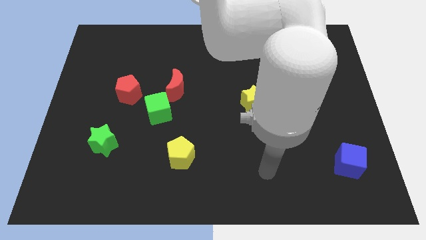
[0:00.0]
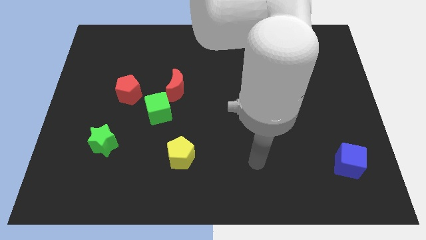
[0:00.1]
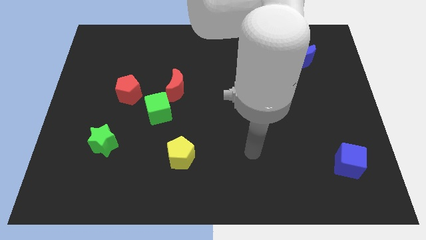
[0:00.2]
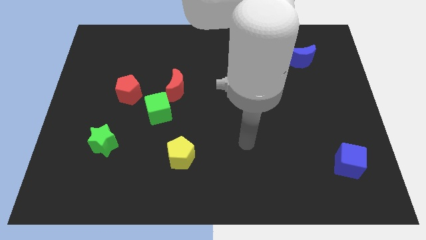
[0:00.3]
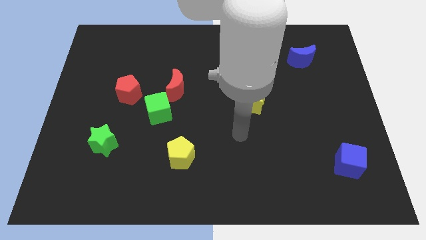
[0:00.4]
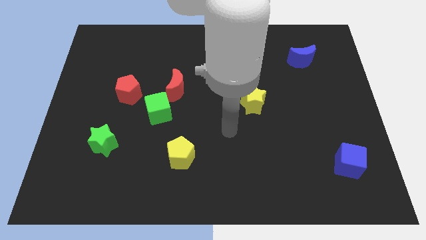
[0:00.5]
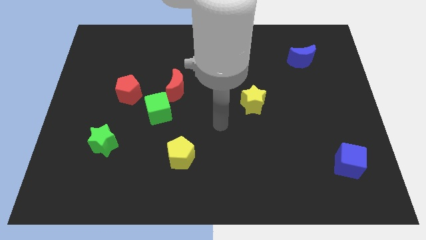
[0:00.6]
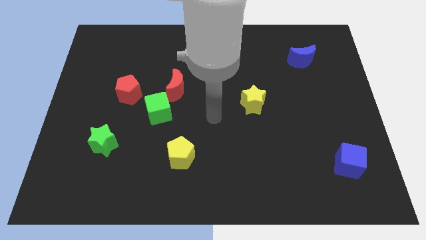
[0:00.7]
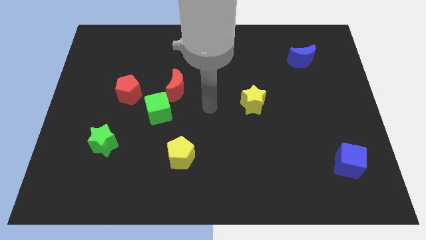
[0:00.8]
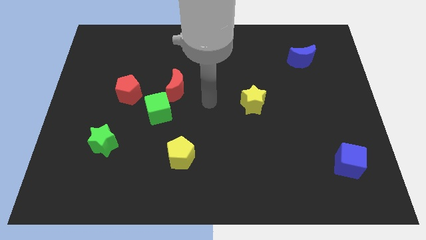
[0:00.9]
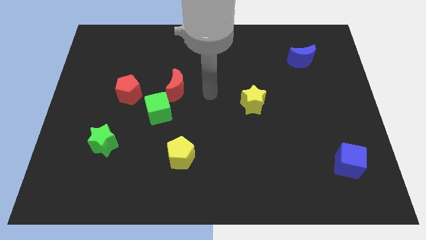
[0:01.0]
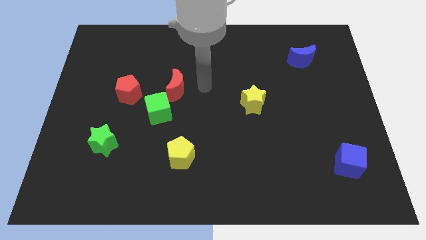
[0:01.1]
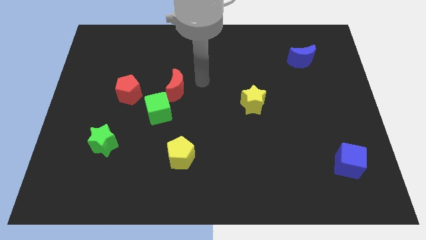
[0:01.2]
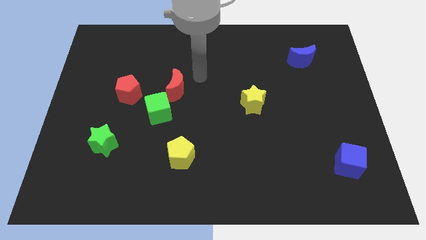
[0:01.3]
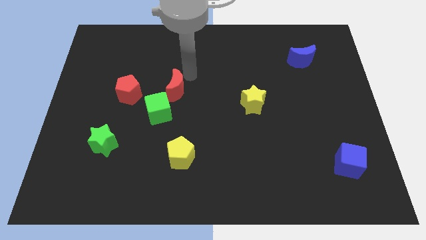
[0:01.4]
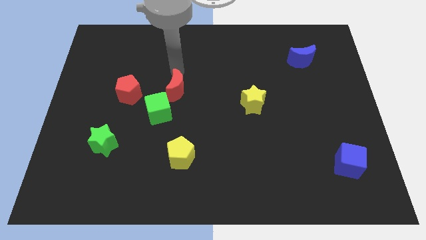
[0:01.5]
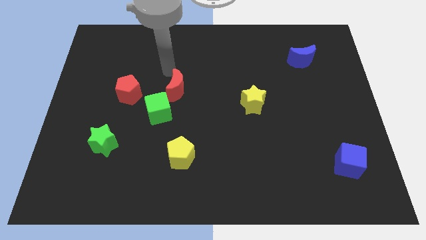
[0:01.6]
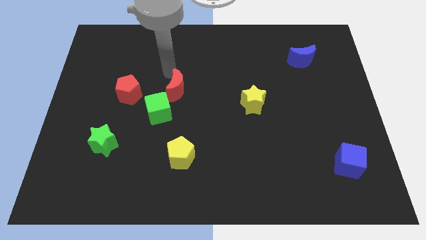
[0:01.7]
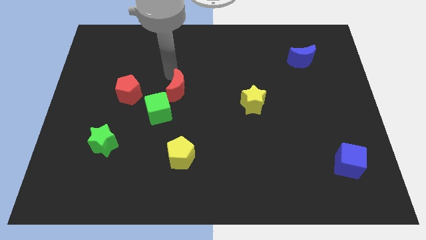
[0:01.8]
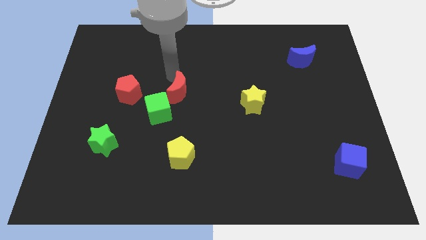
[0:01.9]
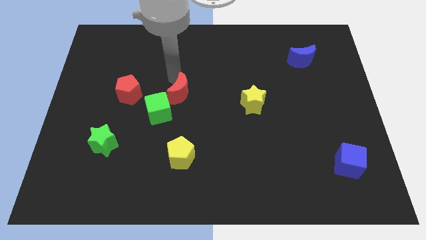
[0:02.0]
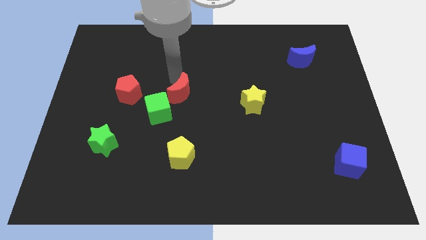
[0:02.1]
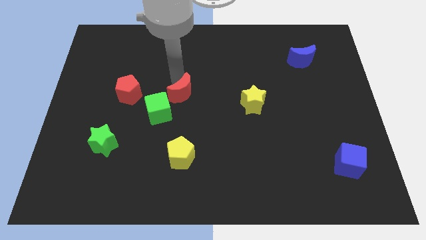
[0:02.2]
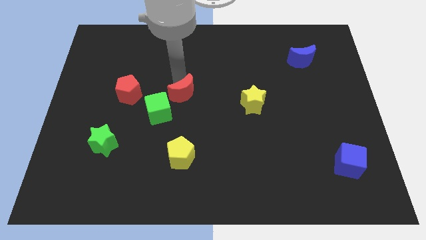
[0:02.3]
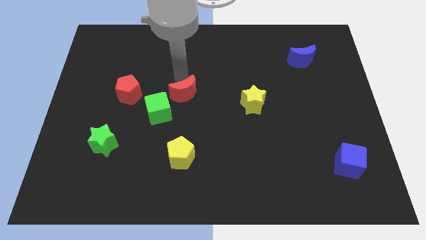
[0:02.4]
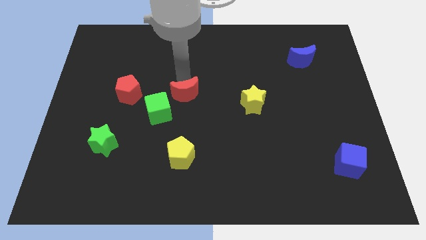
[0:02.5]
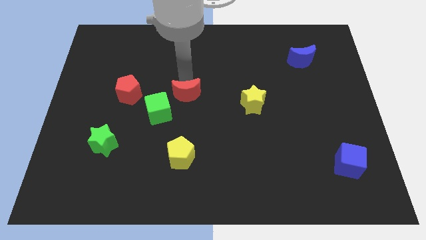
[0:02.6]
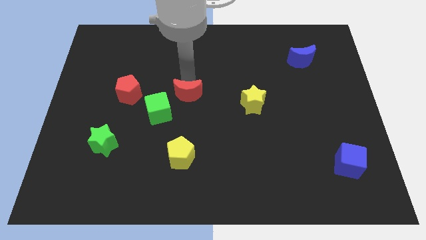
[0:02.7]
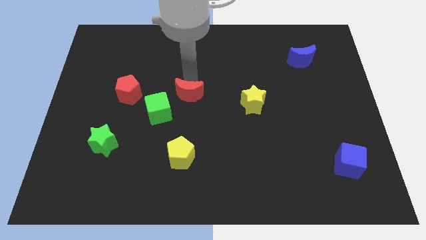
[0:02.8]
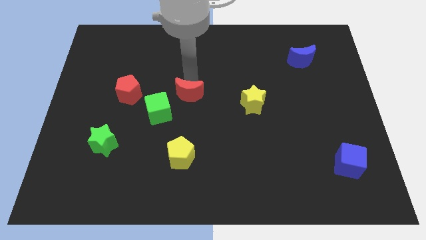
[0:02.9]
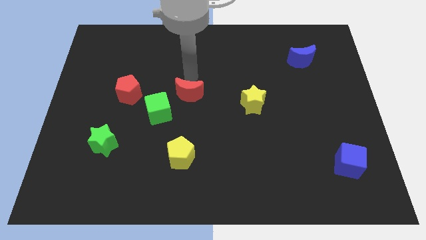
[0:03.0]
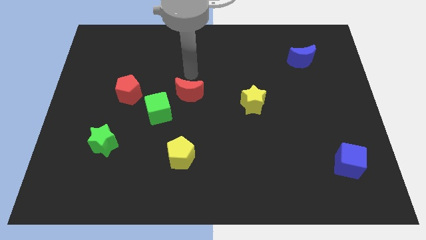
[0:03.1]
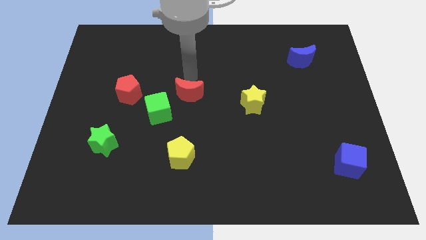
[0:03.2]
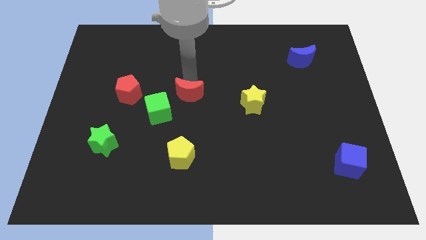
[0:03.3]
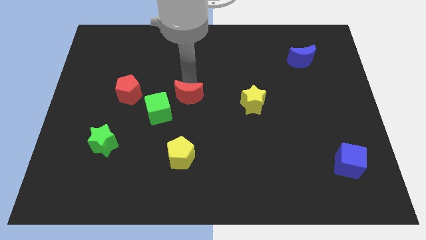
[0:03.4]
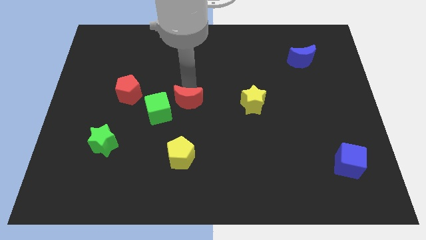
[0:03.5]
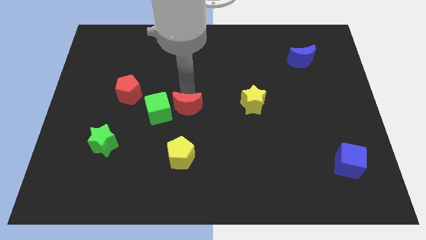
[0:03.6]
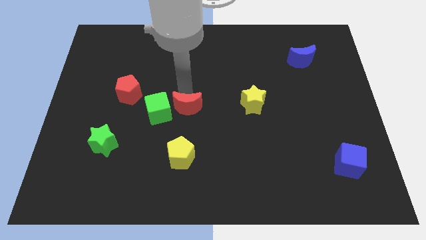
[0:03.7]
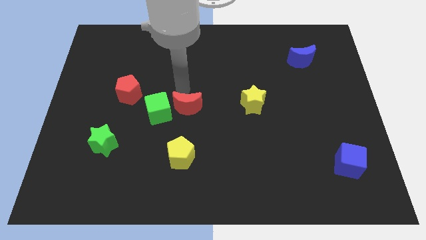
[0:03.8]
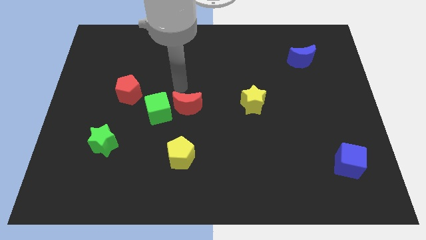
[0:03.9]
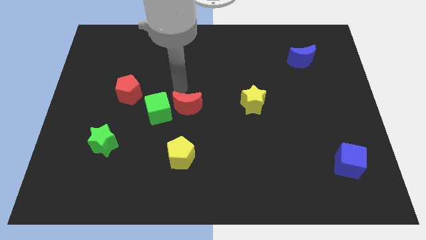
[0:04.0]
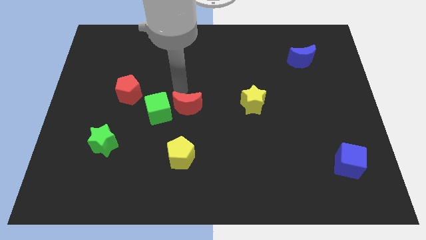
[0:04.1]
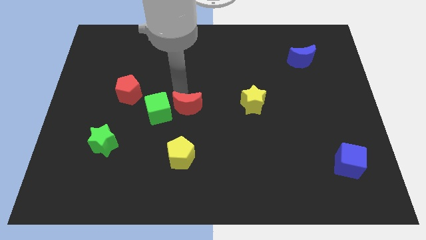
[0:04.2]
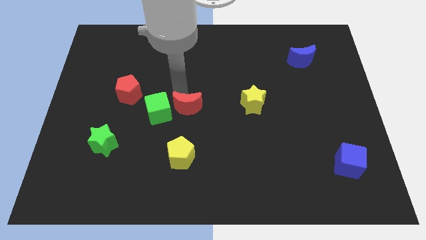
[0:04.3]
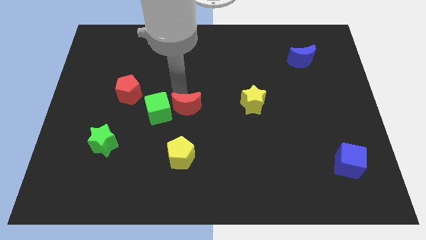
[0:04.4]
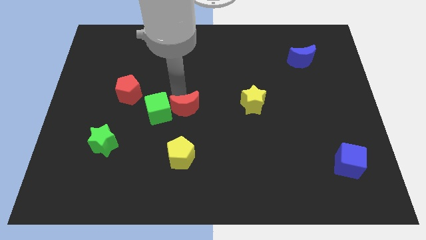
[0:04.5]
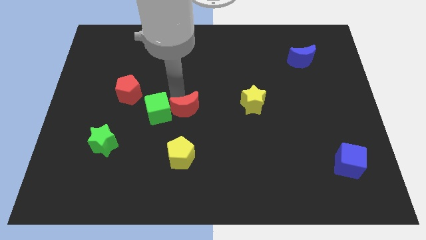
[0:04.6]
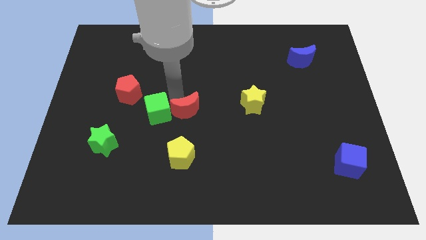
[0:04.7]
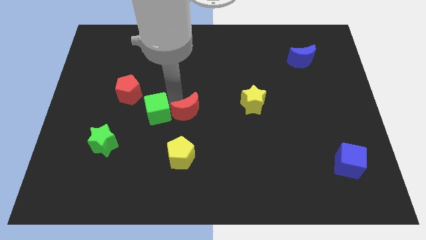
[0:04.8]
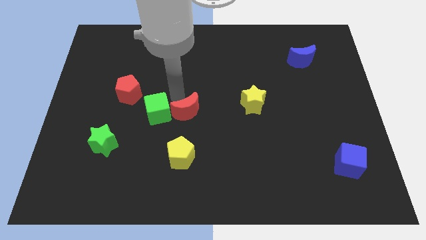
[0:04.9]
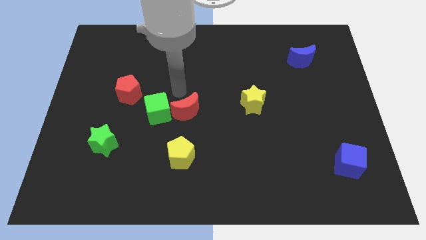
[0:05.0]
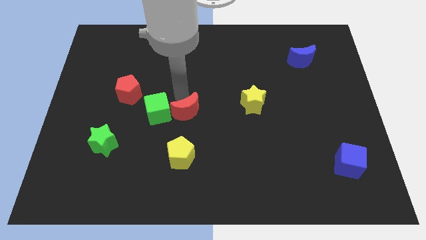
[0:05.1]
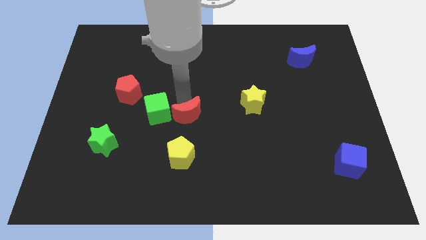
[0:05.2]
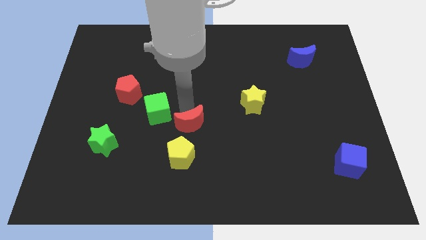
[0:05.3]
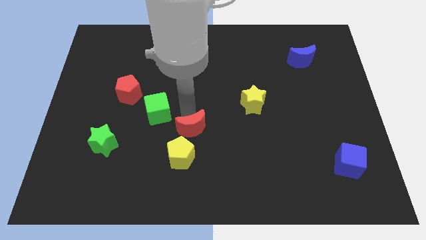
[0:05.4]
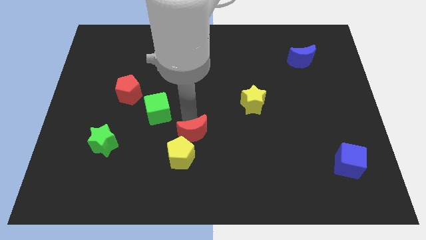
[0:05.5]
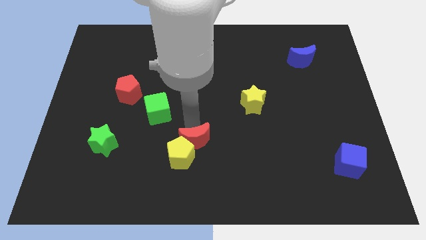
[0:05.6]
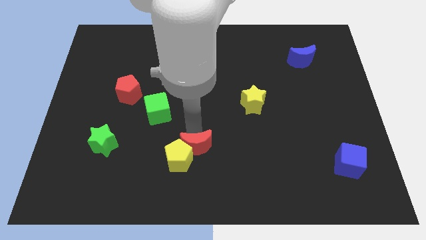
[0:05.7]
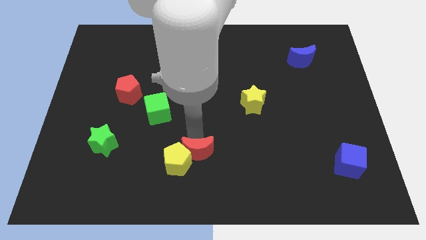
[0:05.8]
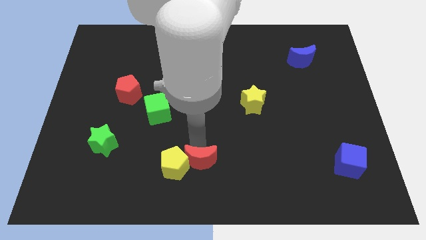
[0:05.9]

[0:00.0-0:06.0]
move the red moon to the bottom

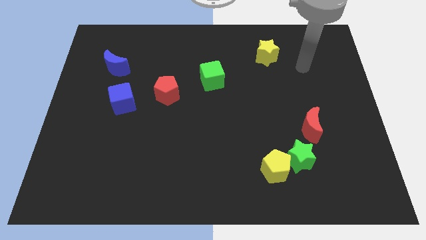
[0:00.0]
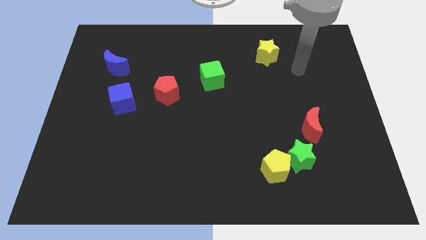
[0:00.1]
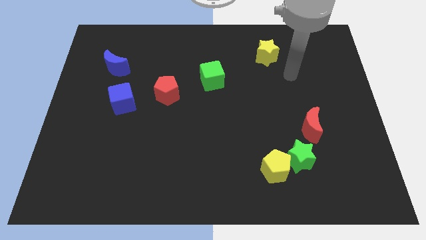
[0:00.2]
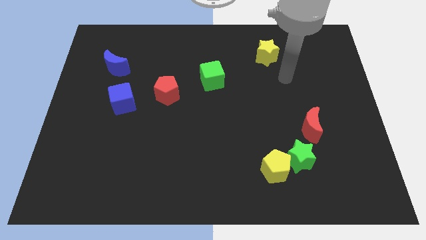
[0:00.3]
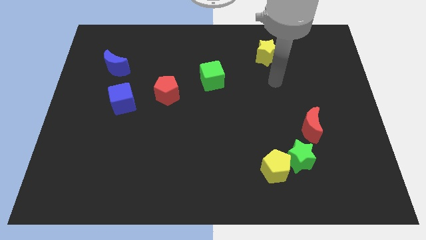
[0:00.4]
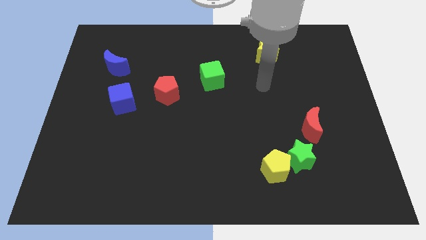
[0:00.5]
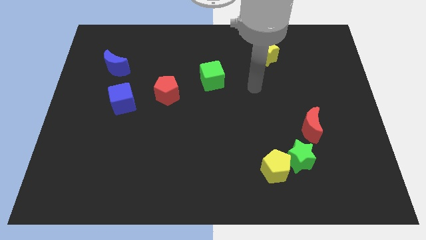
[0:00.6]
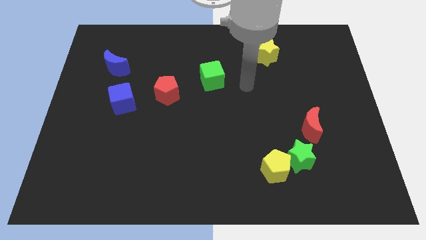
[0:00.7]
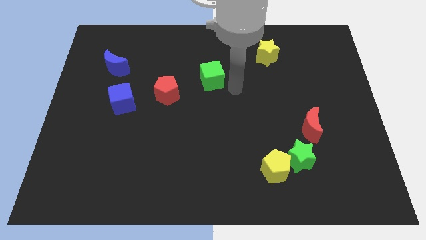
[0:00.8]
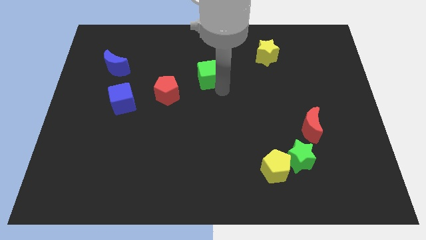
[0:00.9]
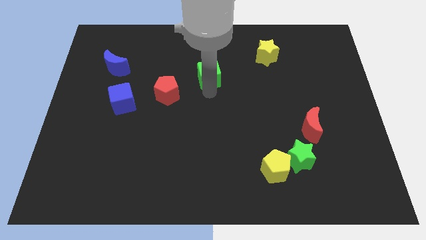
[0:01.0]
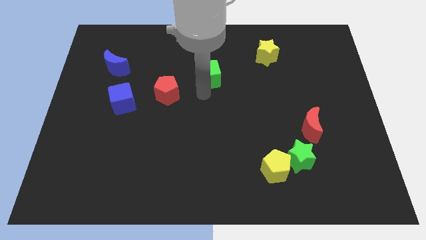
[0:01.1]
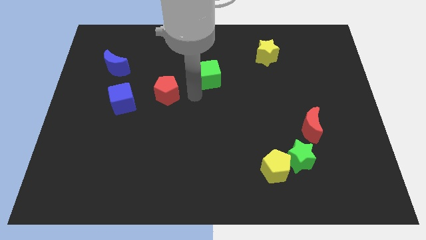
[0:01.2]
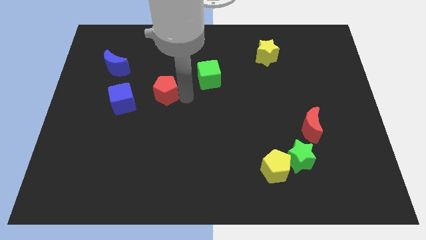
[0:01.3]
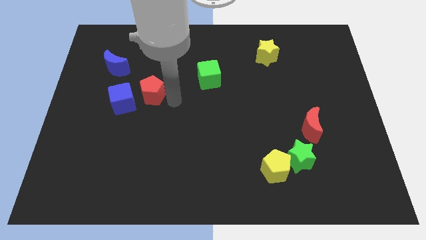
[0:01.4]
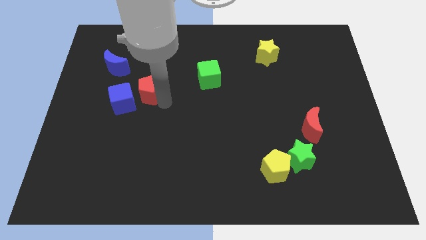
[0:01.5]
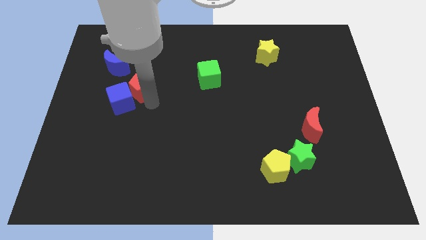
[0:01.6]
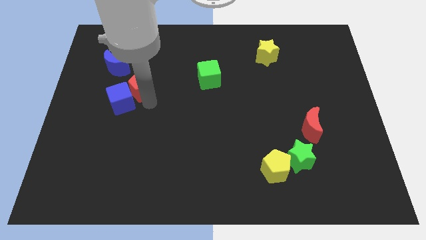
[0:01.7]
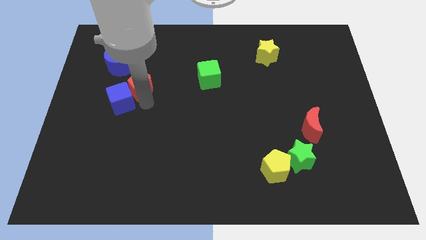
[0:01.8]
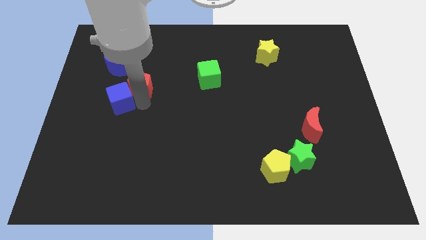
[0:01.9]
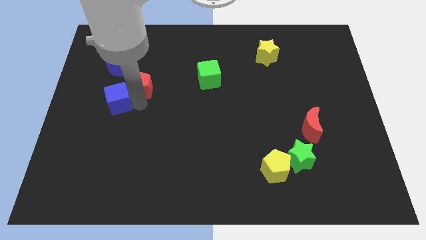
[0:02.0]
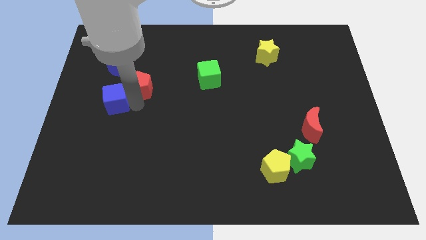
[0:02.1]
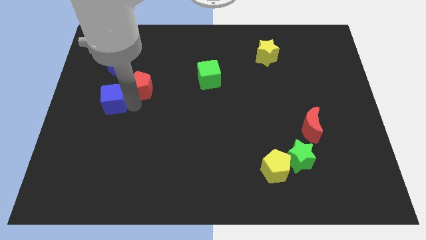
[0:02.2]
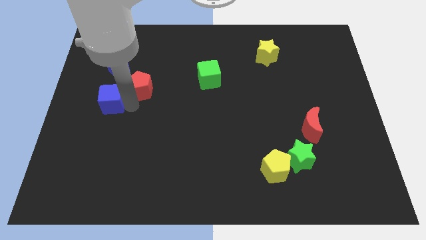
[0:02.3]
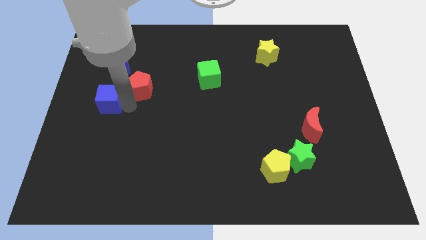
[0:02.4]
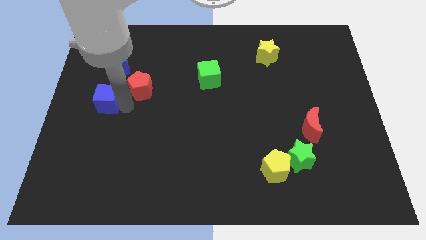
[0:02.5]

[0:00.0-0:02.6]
move the blue cube to the center left
